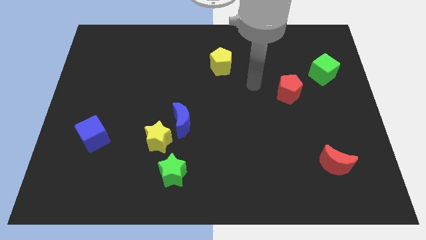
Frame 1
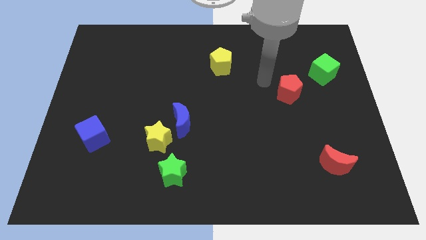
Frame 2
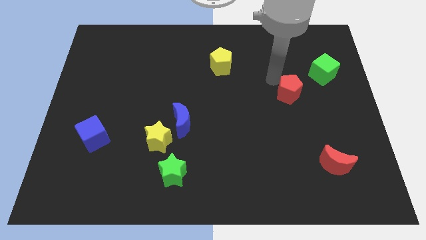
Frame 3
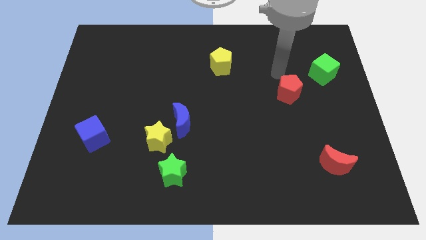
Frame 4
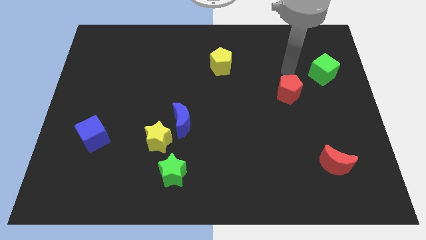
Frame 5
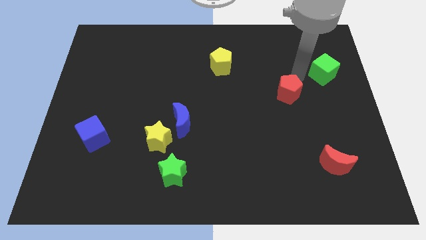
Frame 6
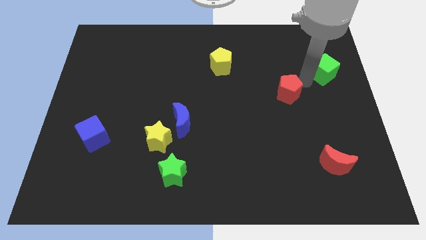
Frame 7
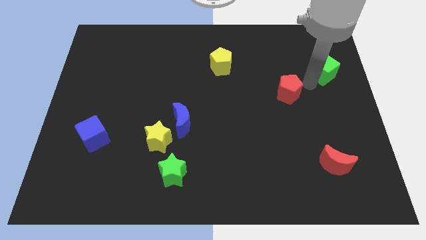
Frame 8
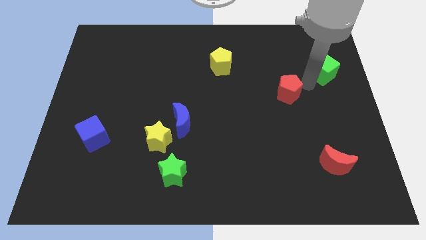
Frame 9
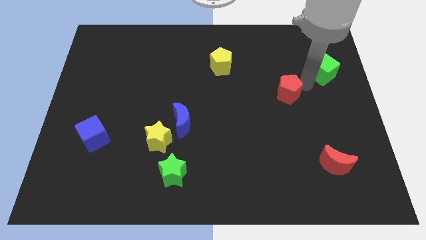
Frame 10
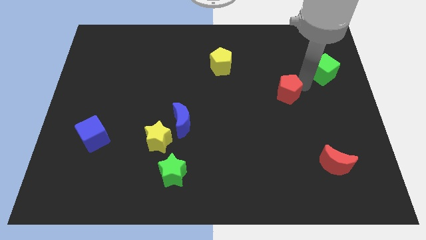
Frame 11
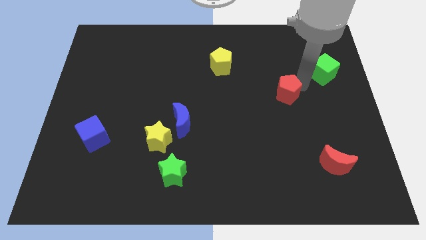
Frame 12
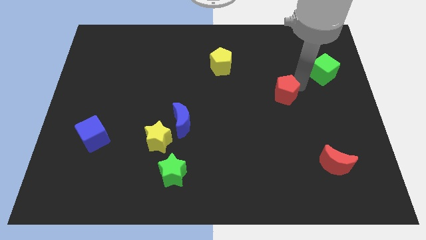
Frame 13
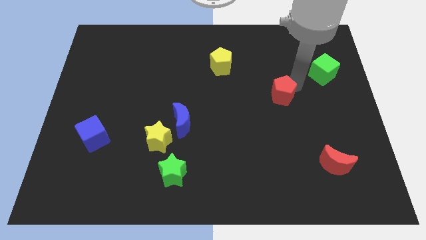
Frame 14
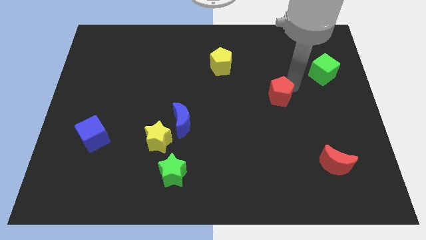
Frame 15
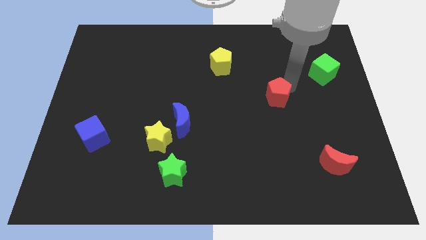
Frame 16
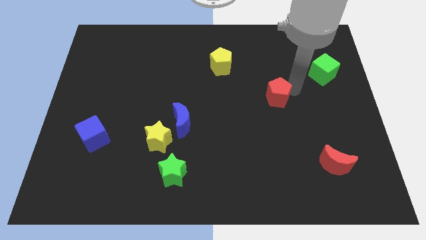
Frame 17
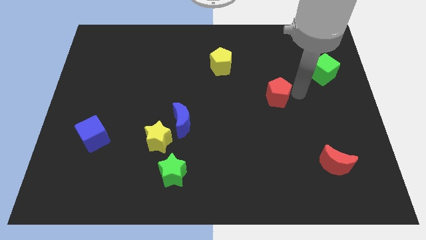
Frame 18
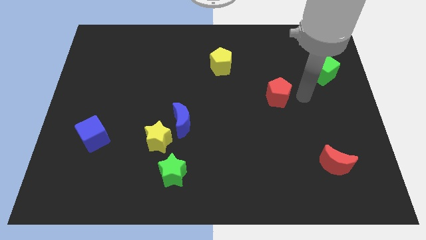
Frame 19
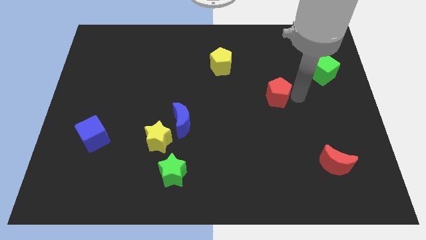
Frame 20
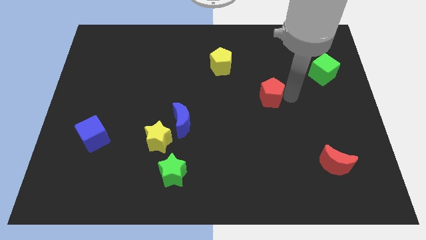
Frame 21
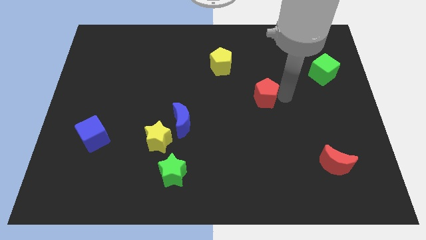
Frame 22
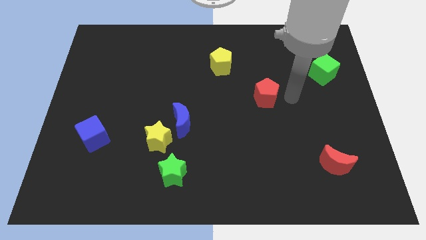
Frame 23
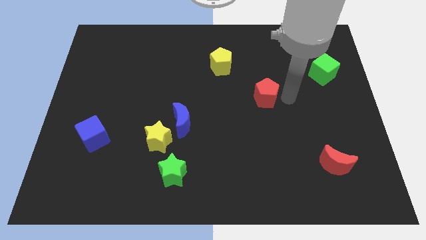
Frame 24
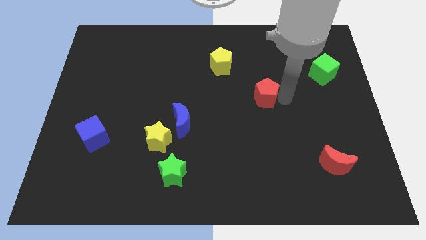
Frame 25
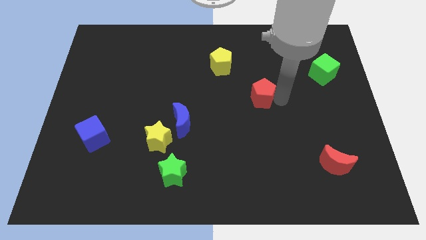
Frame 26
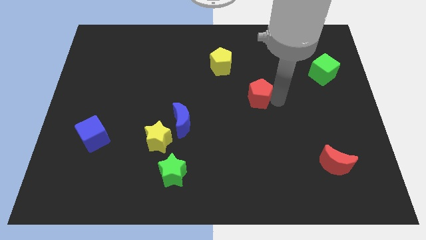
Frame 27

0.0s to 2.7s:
slide the red pentagon somewhat left

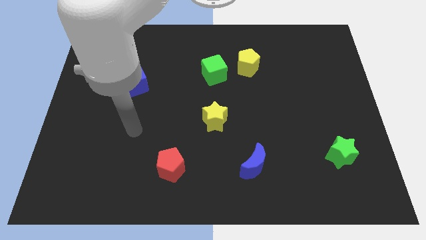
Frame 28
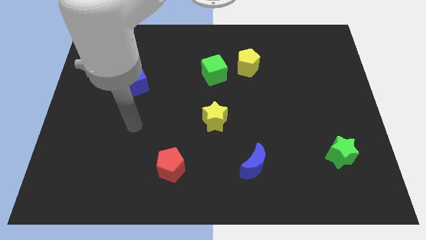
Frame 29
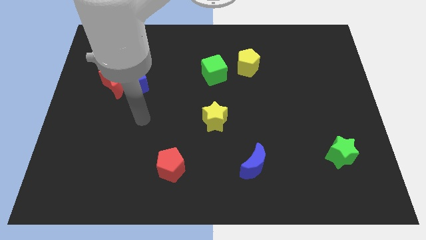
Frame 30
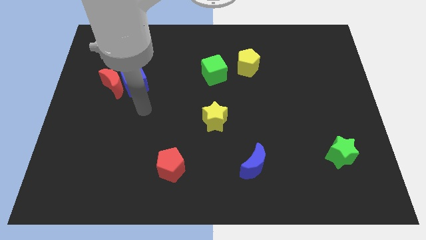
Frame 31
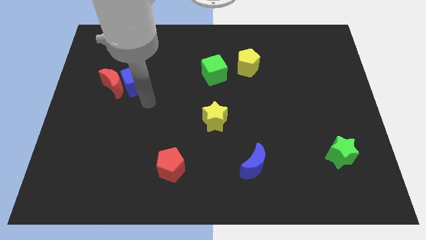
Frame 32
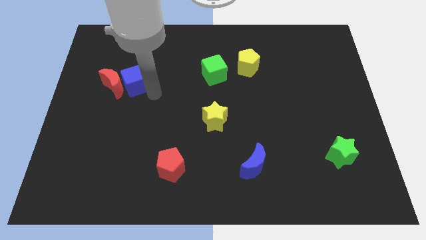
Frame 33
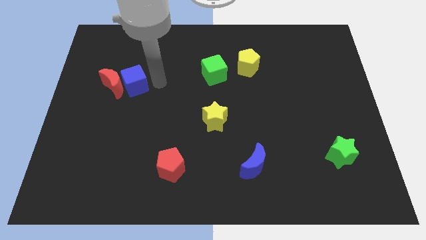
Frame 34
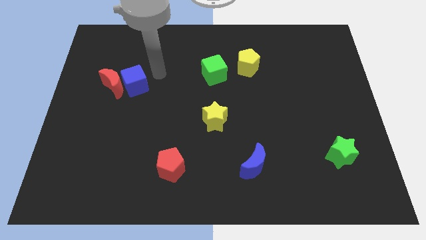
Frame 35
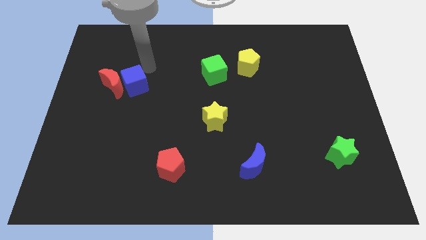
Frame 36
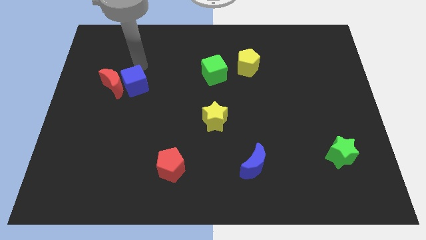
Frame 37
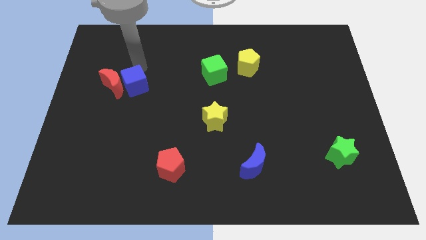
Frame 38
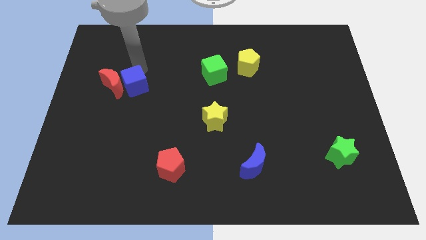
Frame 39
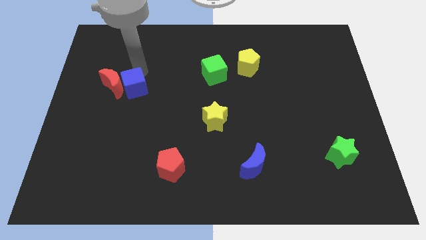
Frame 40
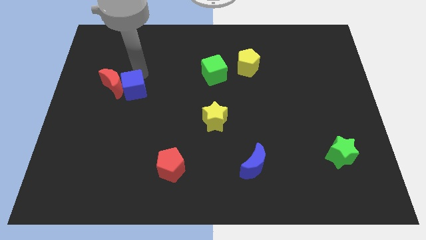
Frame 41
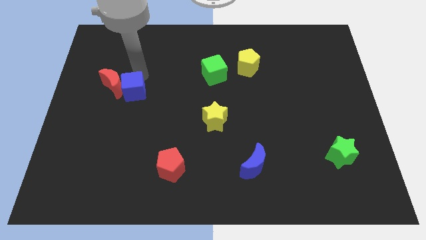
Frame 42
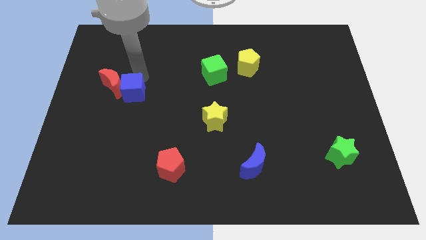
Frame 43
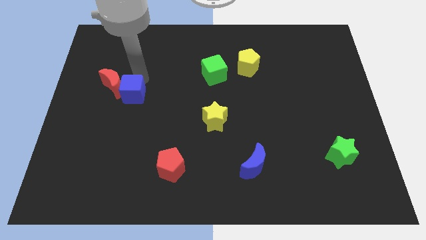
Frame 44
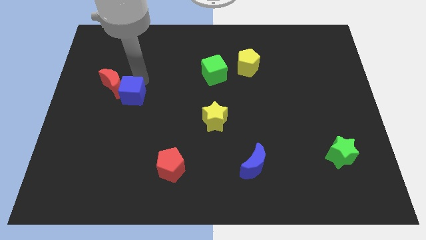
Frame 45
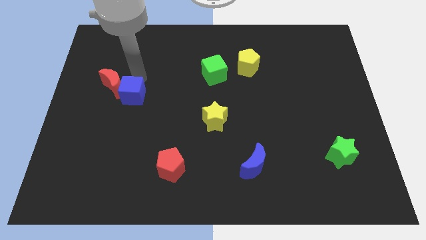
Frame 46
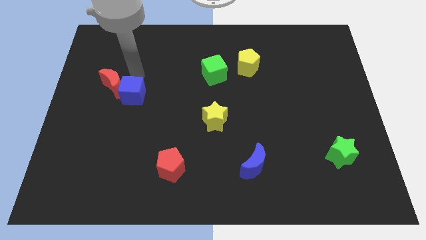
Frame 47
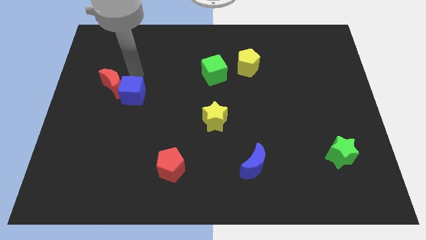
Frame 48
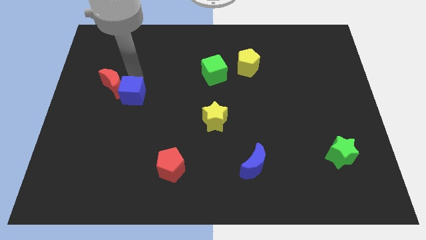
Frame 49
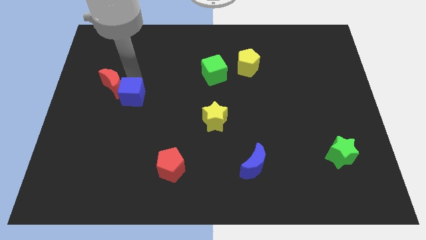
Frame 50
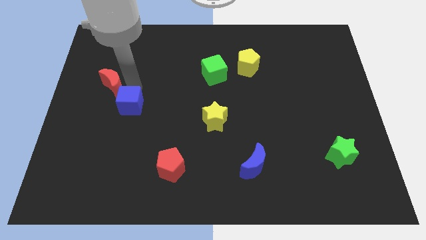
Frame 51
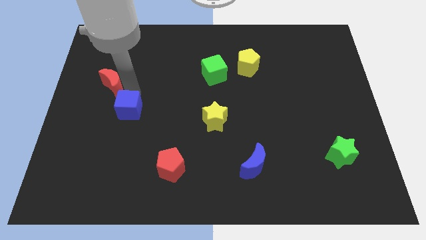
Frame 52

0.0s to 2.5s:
slightly push the blue cube down

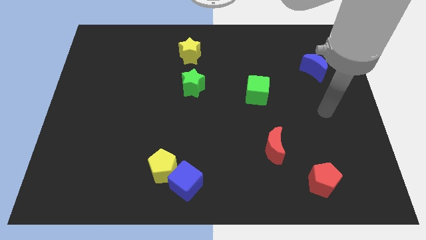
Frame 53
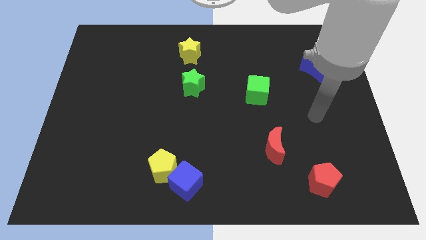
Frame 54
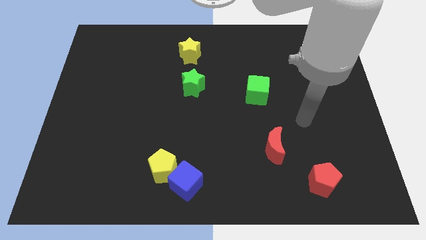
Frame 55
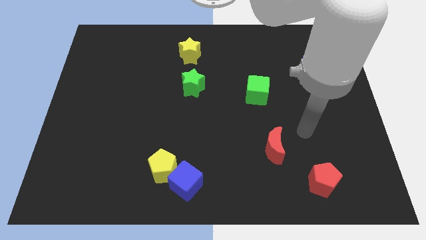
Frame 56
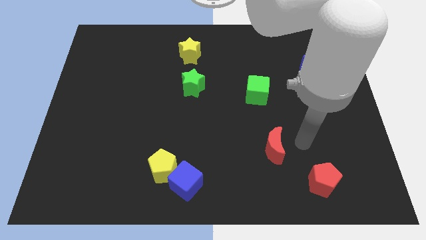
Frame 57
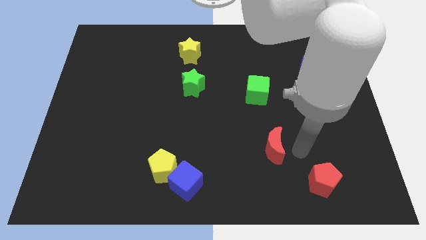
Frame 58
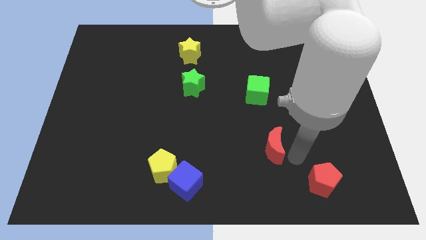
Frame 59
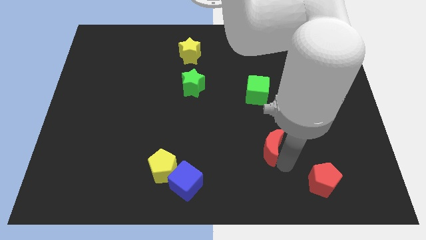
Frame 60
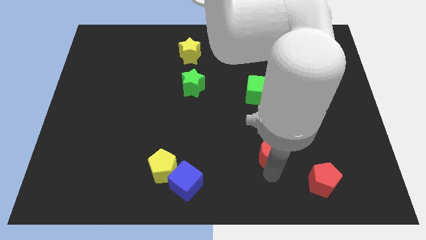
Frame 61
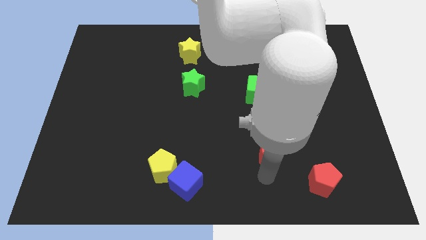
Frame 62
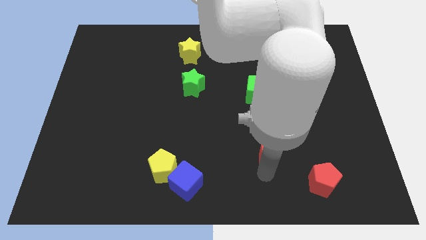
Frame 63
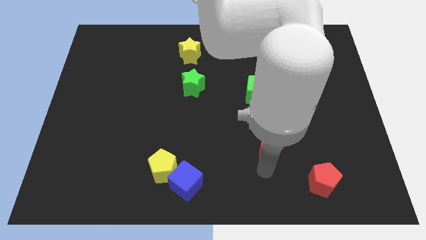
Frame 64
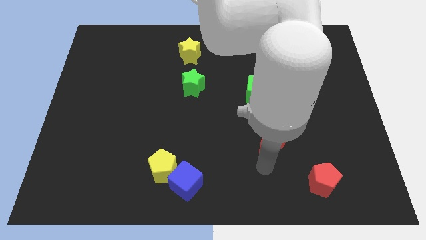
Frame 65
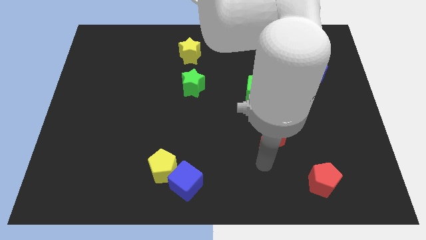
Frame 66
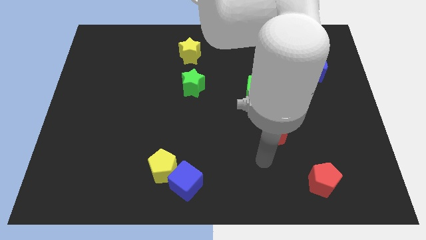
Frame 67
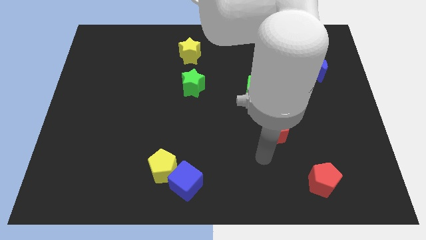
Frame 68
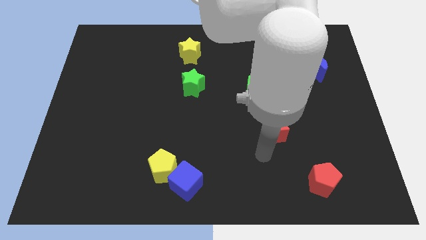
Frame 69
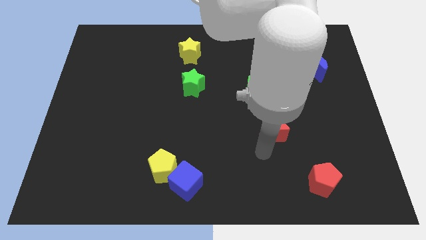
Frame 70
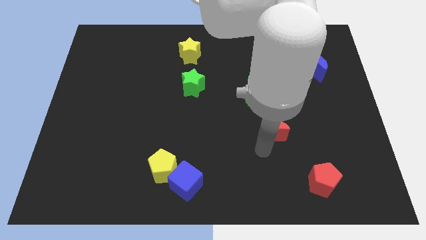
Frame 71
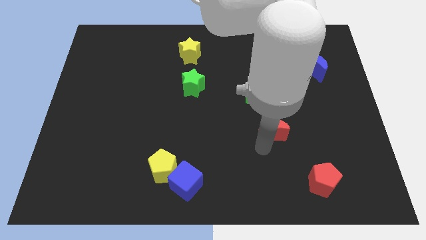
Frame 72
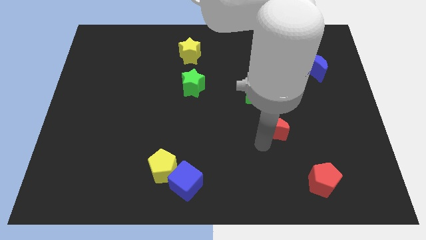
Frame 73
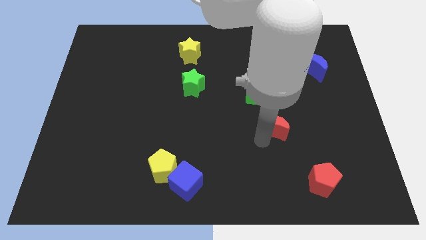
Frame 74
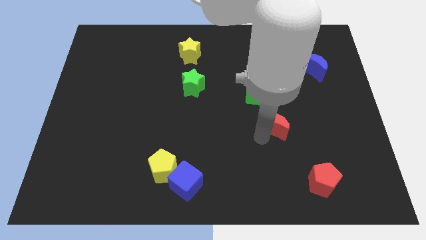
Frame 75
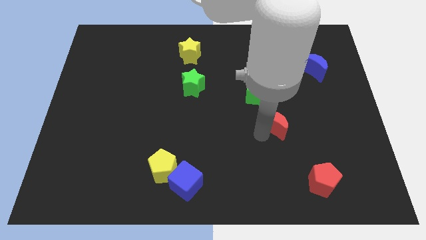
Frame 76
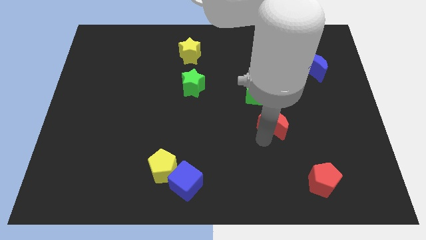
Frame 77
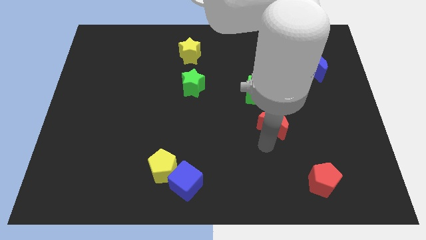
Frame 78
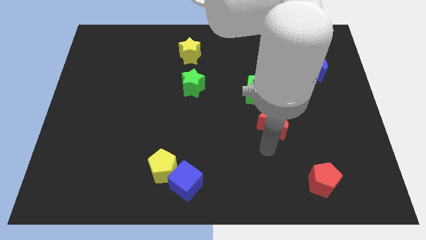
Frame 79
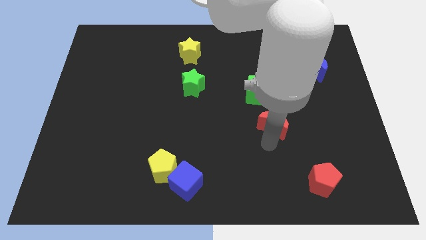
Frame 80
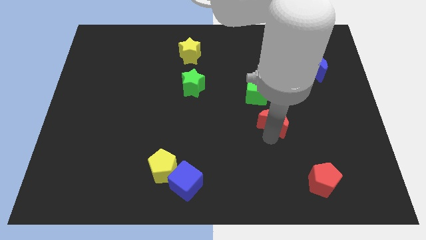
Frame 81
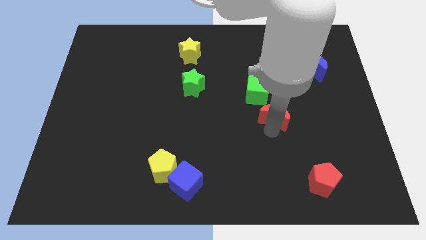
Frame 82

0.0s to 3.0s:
move the red moon a little upwards
